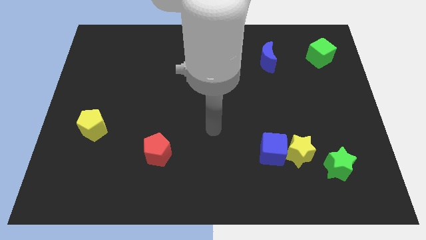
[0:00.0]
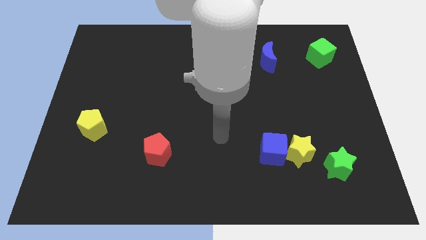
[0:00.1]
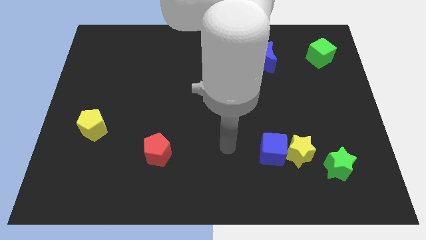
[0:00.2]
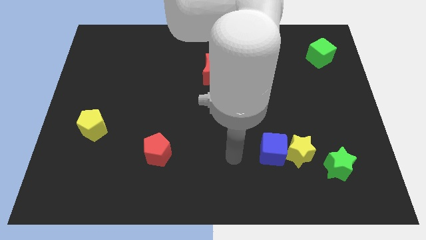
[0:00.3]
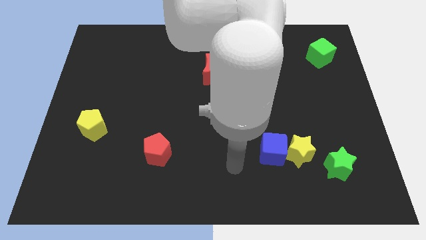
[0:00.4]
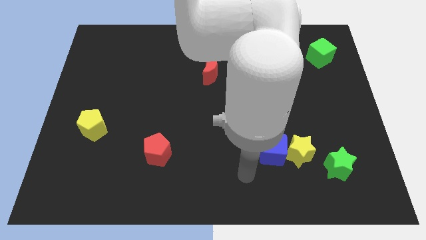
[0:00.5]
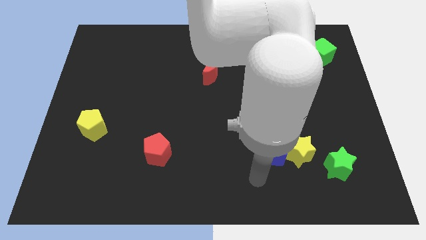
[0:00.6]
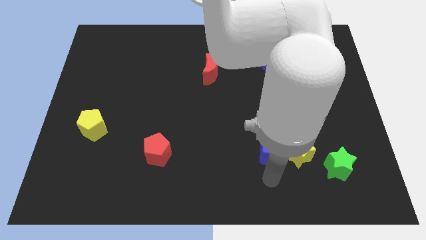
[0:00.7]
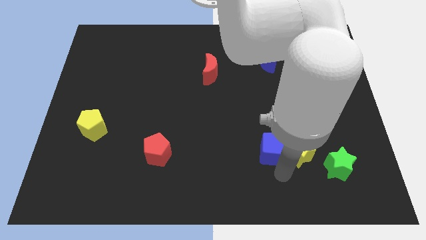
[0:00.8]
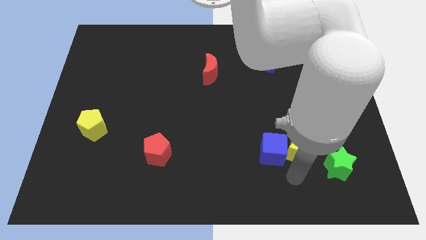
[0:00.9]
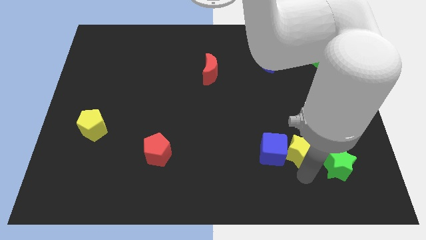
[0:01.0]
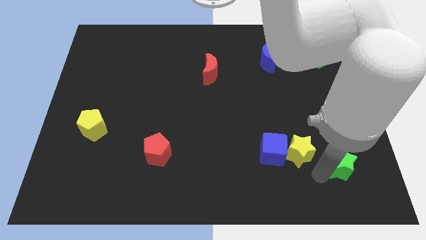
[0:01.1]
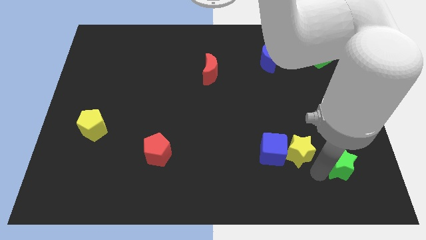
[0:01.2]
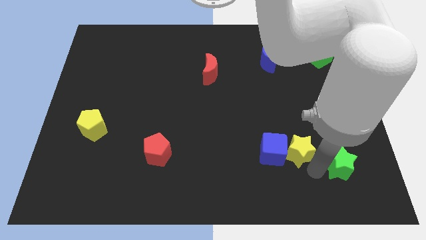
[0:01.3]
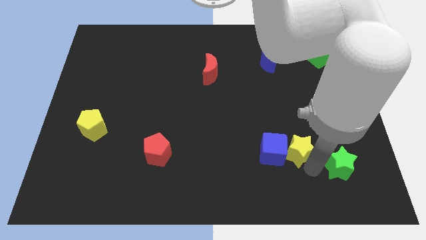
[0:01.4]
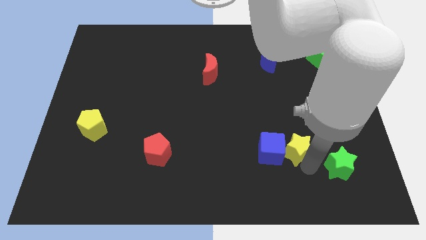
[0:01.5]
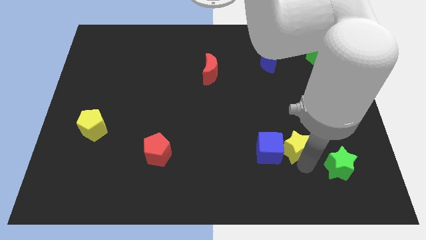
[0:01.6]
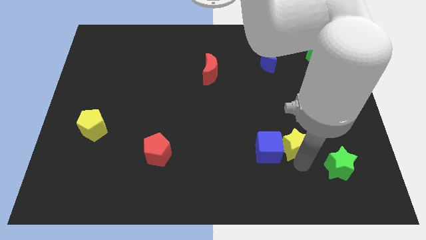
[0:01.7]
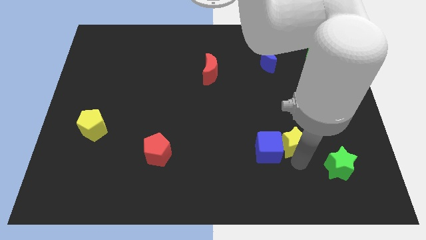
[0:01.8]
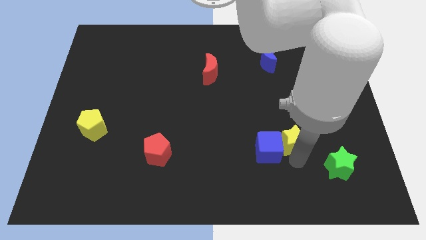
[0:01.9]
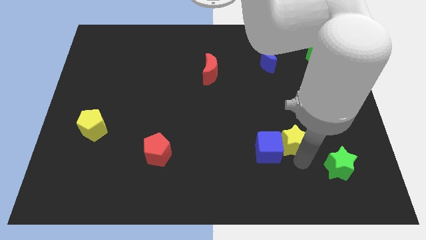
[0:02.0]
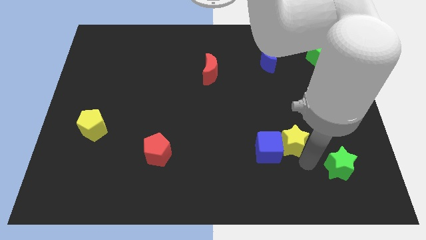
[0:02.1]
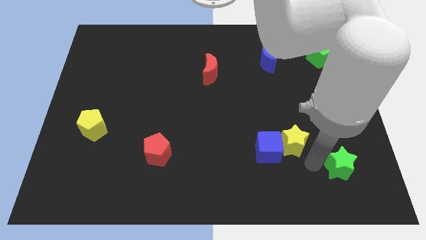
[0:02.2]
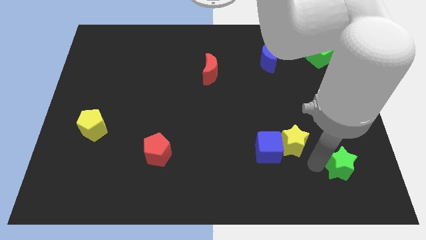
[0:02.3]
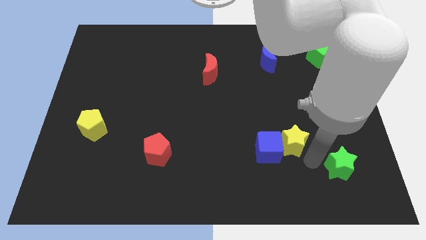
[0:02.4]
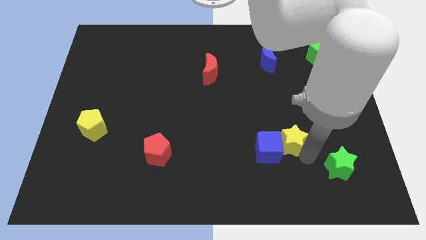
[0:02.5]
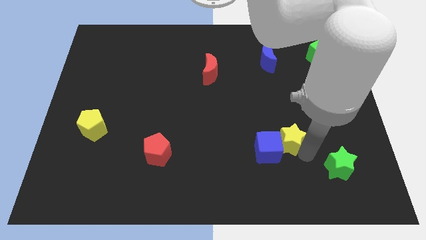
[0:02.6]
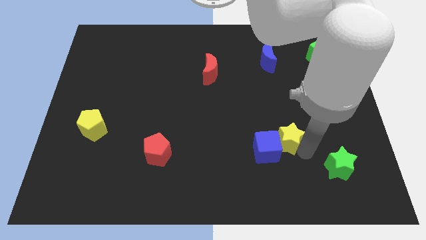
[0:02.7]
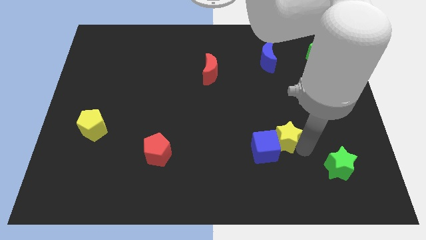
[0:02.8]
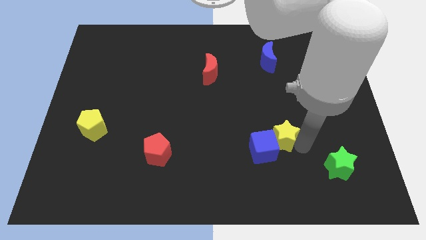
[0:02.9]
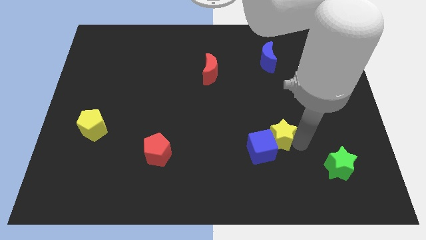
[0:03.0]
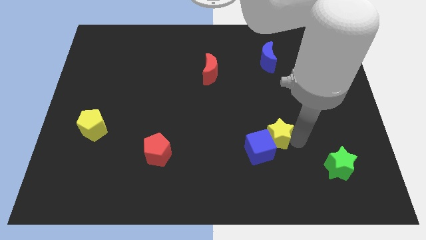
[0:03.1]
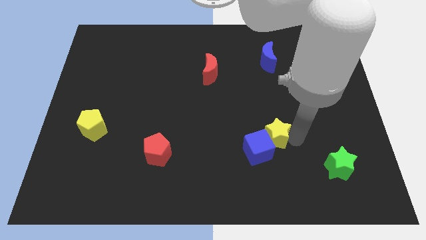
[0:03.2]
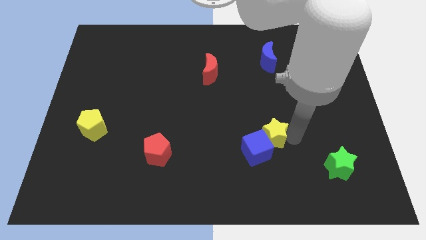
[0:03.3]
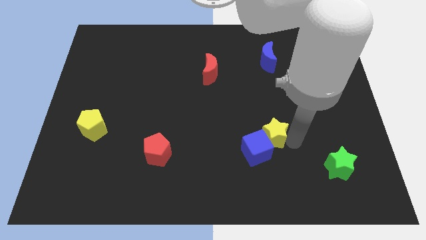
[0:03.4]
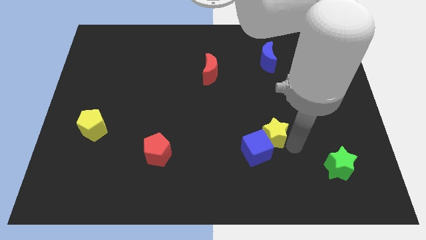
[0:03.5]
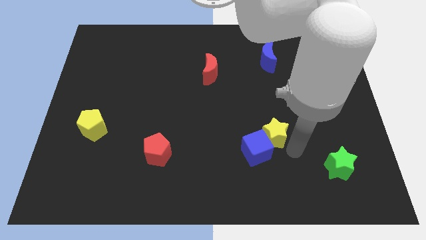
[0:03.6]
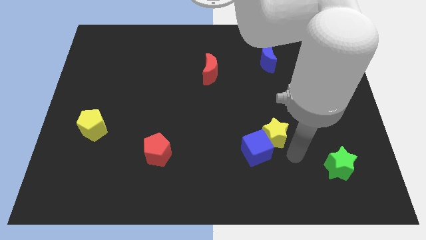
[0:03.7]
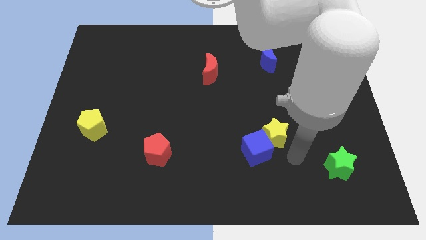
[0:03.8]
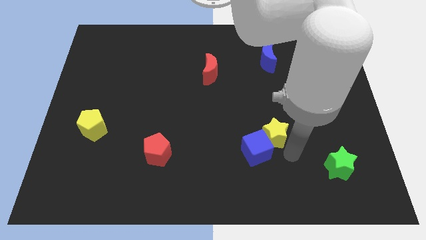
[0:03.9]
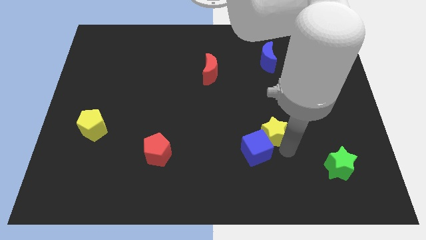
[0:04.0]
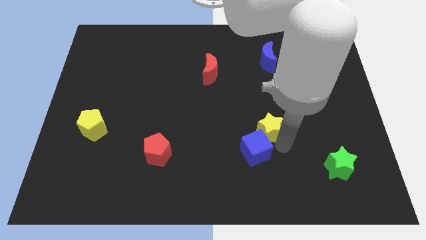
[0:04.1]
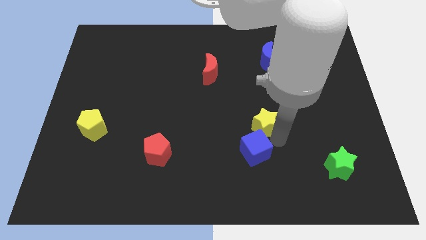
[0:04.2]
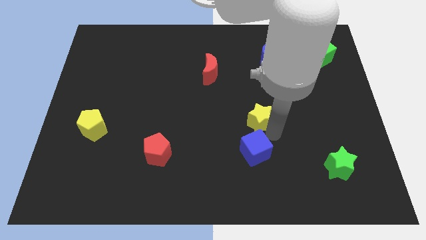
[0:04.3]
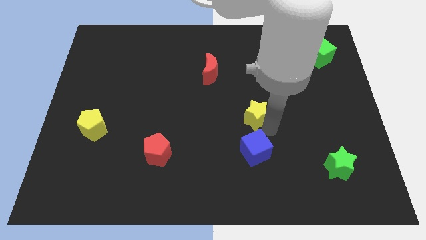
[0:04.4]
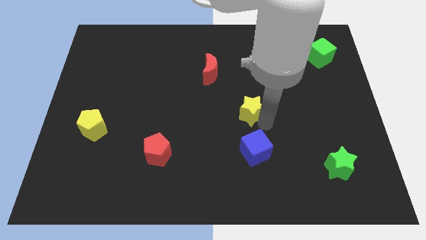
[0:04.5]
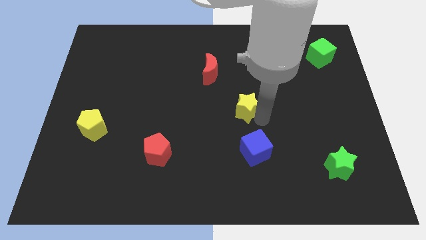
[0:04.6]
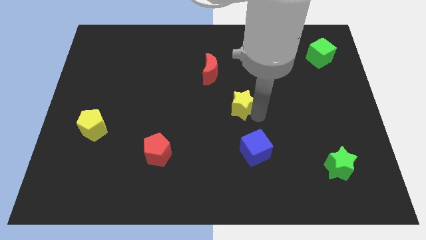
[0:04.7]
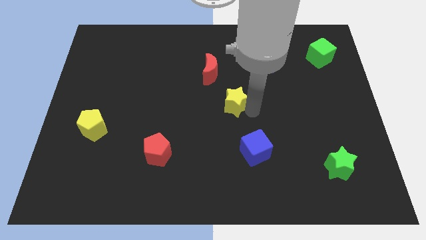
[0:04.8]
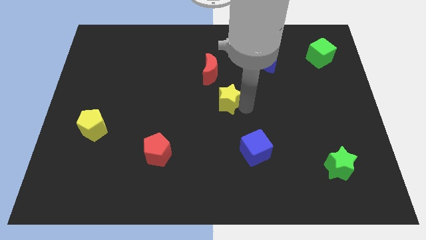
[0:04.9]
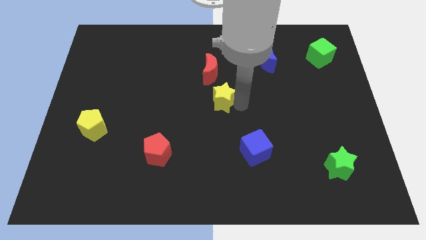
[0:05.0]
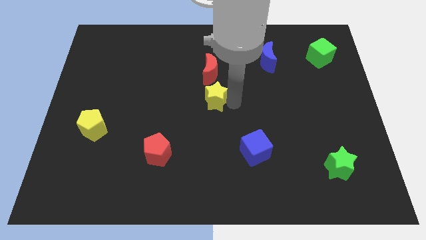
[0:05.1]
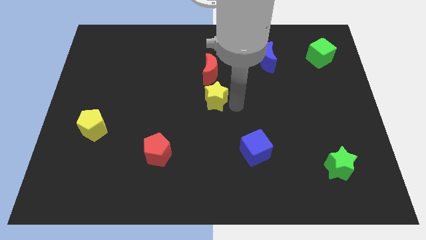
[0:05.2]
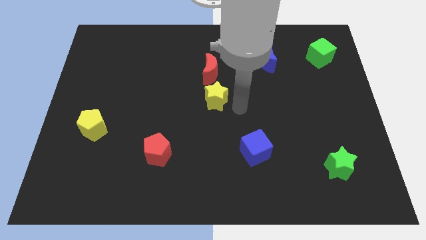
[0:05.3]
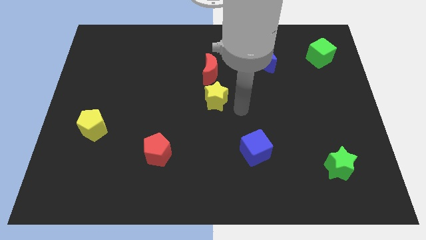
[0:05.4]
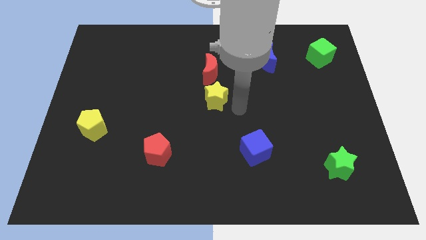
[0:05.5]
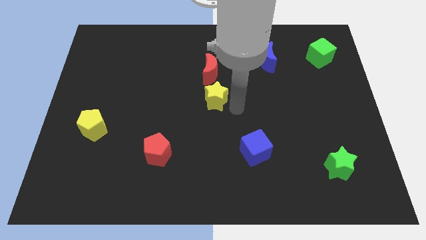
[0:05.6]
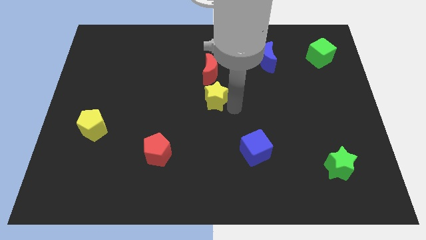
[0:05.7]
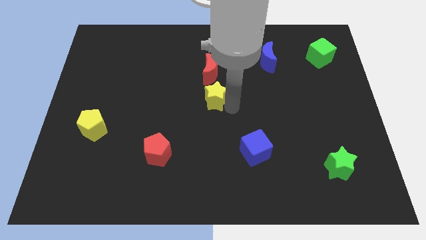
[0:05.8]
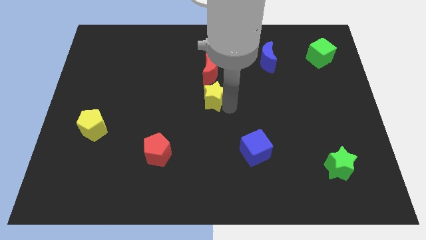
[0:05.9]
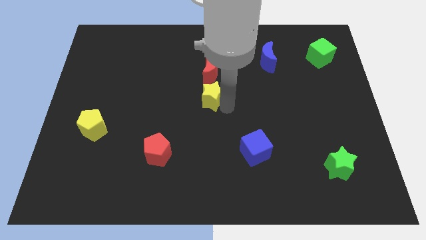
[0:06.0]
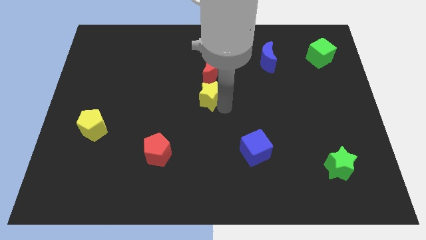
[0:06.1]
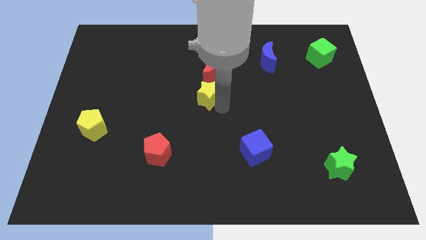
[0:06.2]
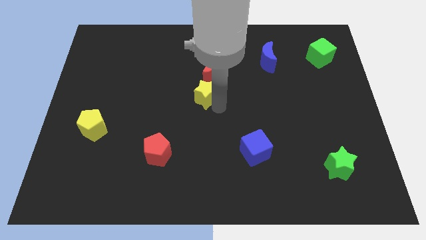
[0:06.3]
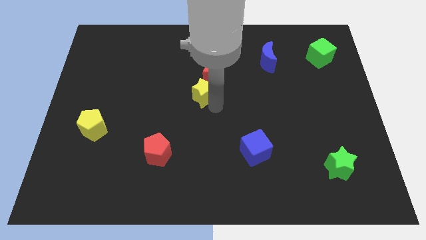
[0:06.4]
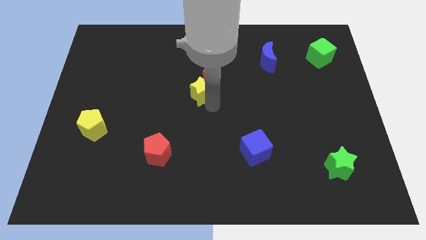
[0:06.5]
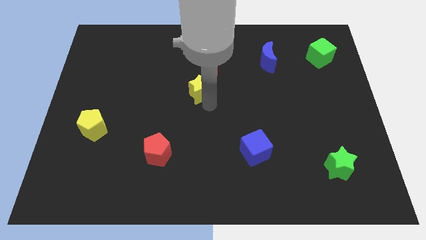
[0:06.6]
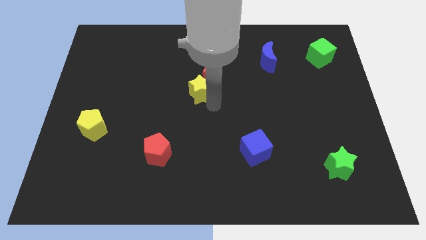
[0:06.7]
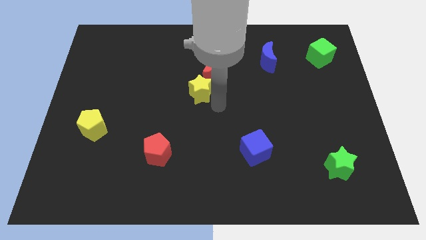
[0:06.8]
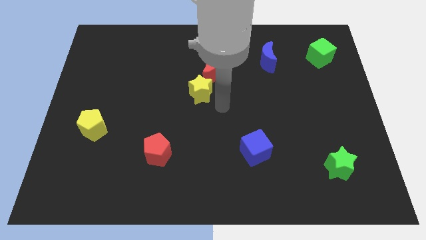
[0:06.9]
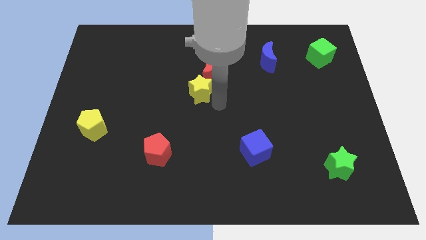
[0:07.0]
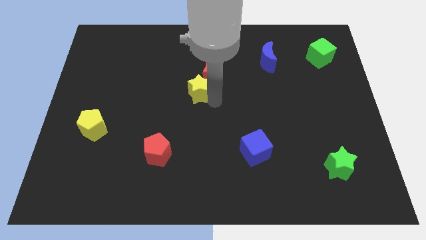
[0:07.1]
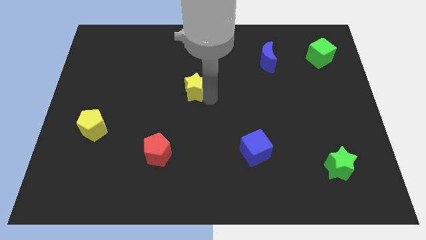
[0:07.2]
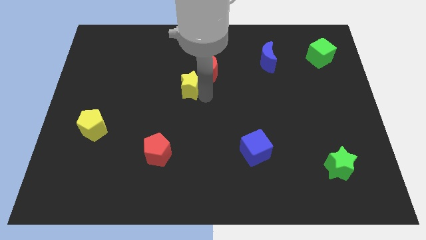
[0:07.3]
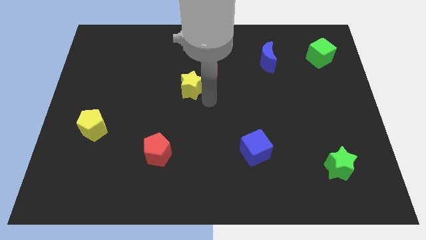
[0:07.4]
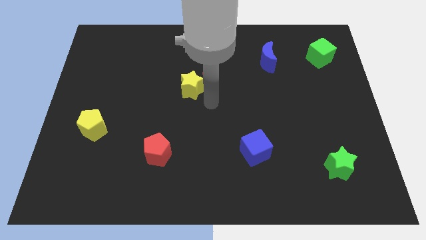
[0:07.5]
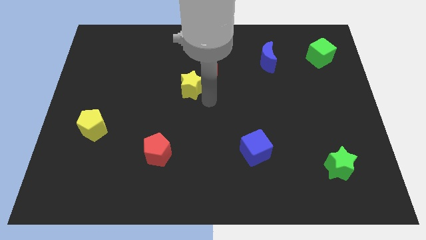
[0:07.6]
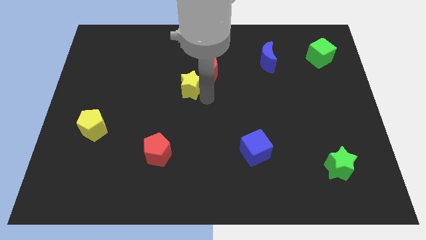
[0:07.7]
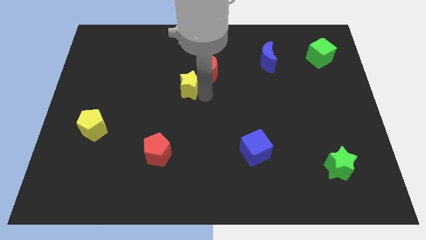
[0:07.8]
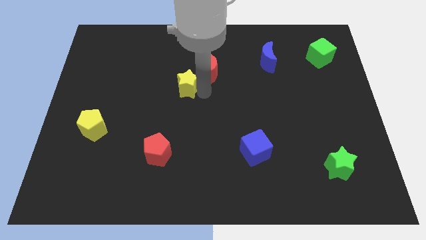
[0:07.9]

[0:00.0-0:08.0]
move the yellow star to the left of the red moon
